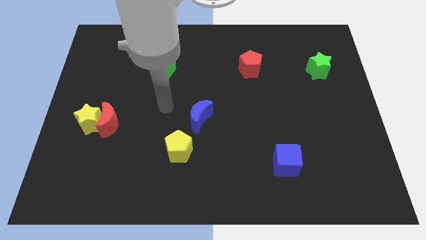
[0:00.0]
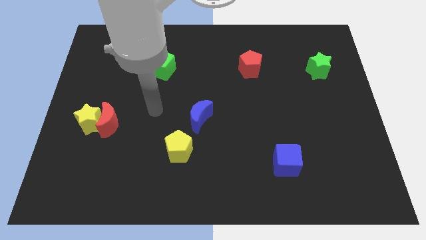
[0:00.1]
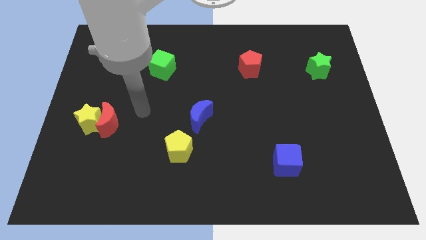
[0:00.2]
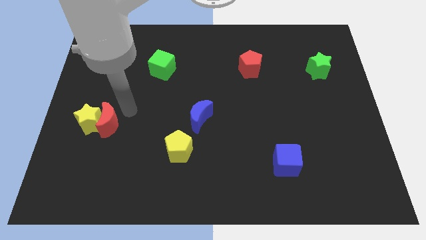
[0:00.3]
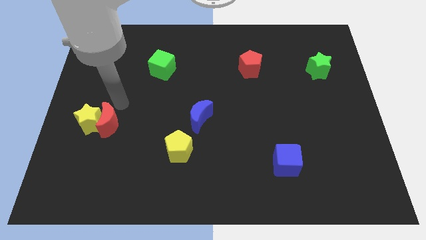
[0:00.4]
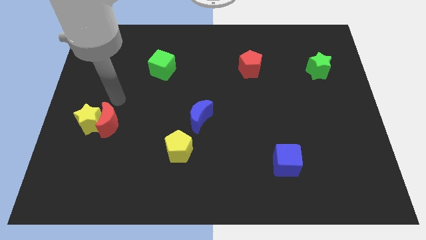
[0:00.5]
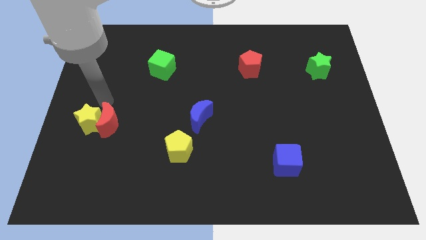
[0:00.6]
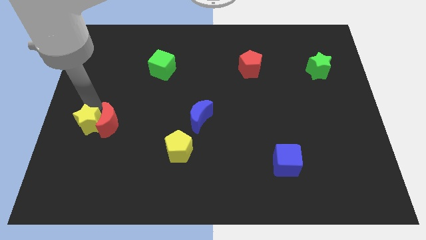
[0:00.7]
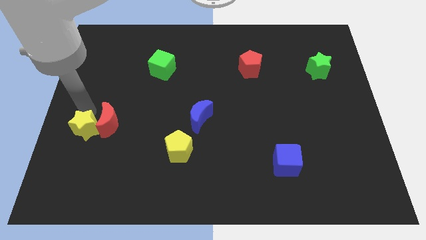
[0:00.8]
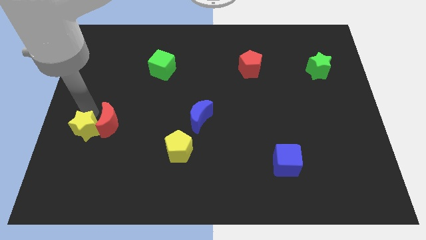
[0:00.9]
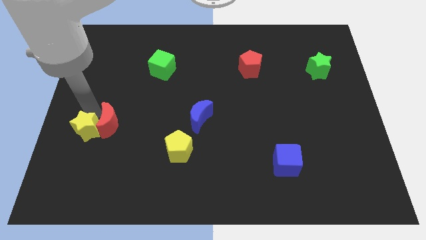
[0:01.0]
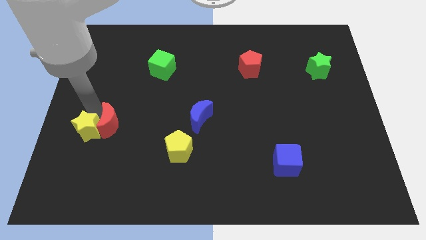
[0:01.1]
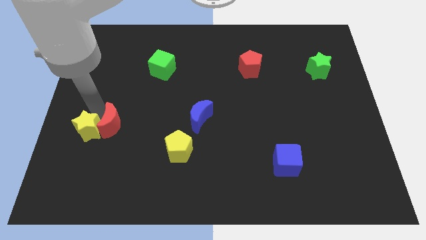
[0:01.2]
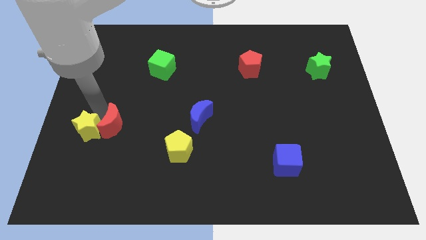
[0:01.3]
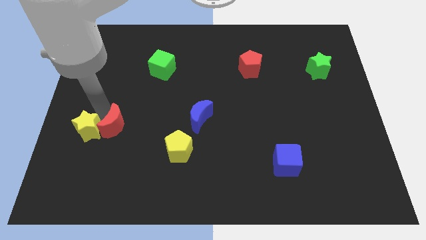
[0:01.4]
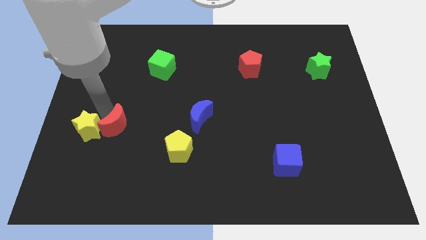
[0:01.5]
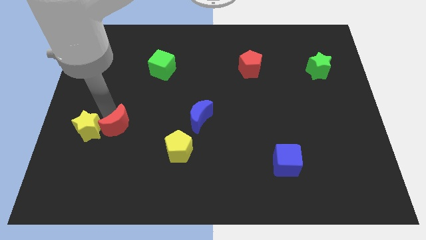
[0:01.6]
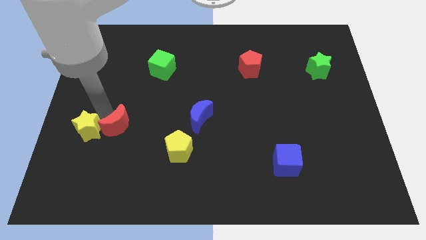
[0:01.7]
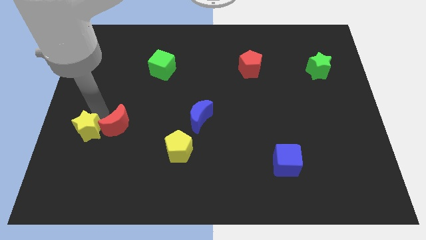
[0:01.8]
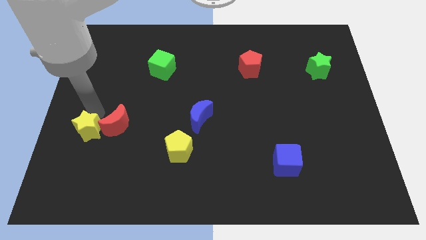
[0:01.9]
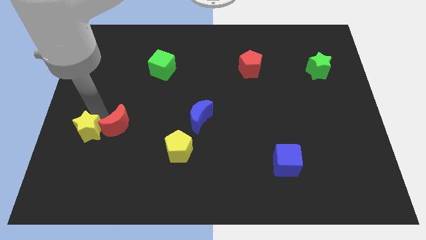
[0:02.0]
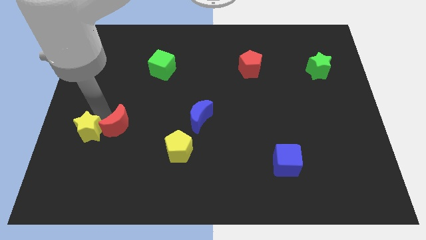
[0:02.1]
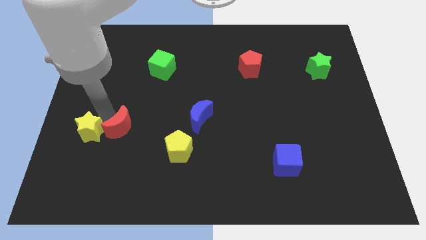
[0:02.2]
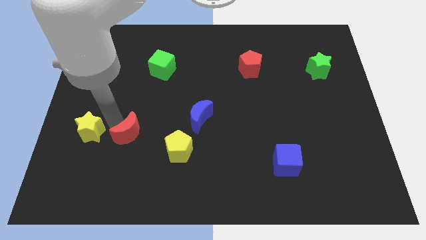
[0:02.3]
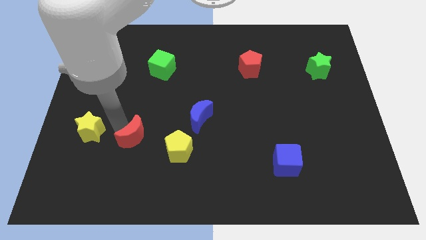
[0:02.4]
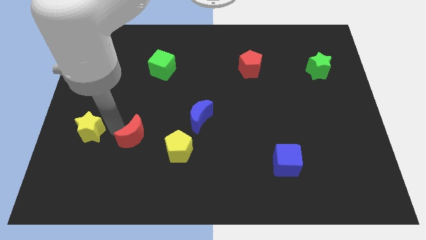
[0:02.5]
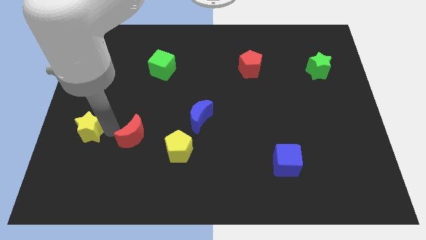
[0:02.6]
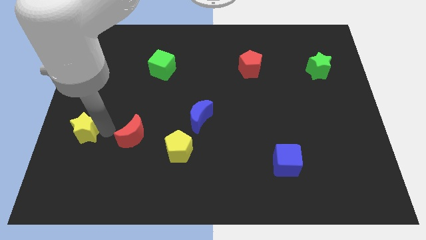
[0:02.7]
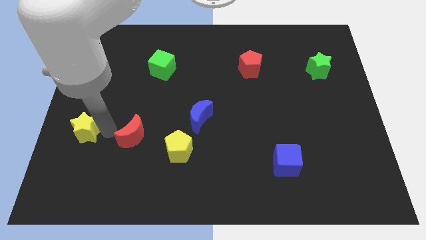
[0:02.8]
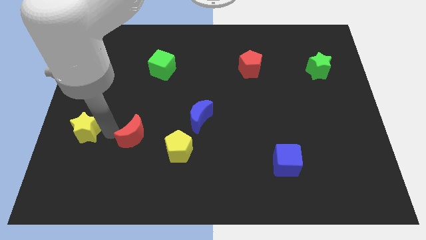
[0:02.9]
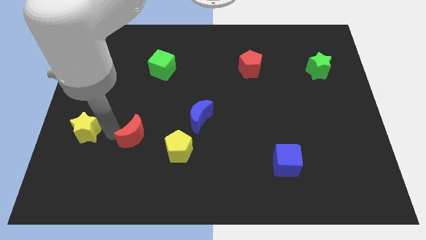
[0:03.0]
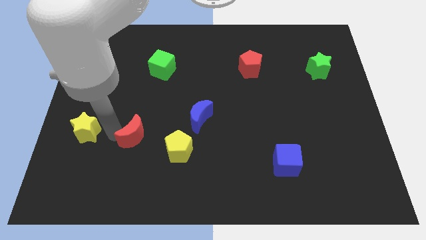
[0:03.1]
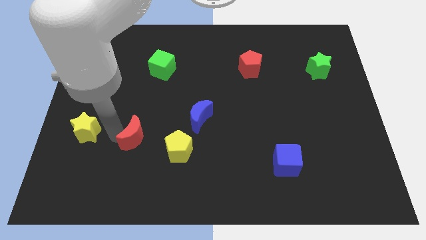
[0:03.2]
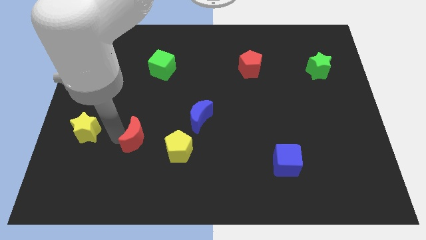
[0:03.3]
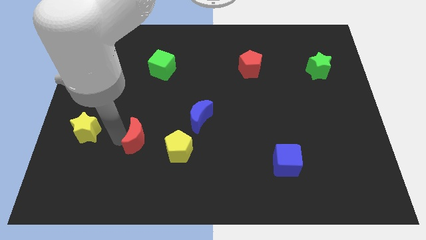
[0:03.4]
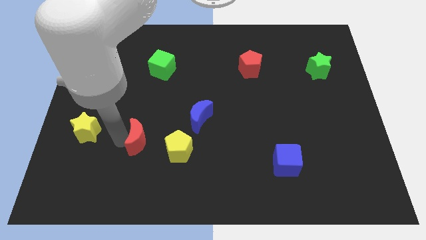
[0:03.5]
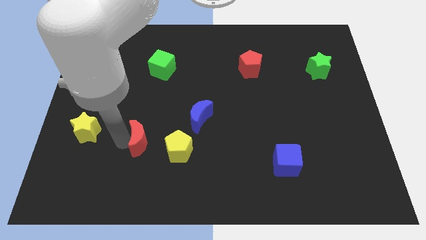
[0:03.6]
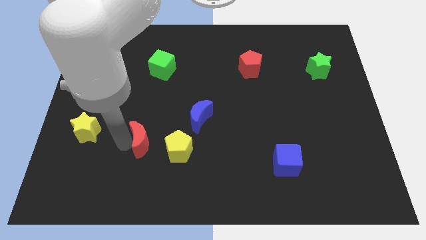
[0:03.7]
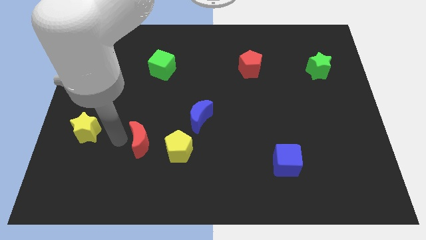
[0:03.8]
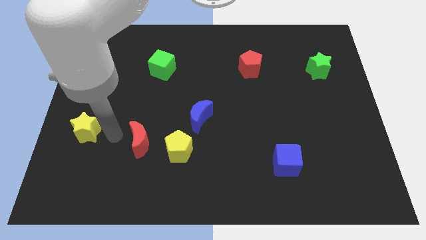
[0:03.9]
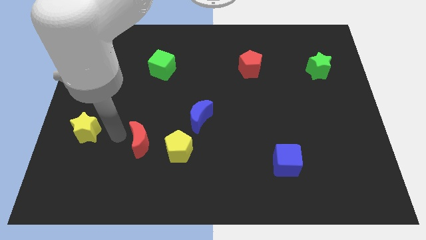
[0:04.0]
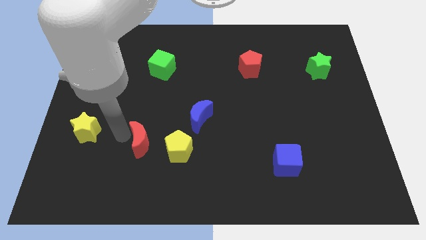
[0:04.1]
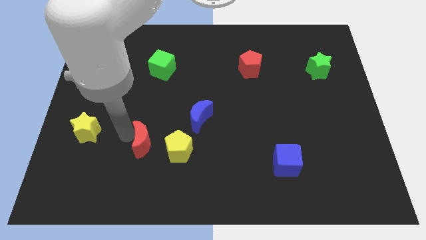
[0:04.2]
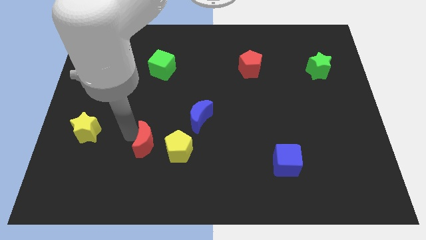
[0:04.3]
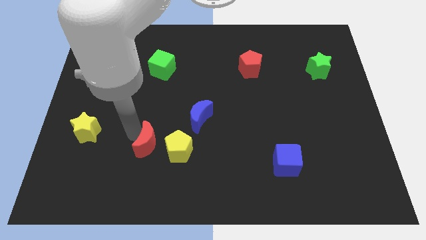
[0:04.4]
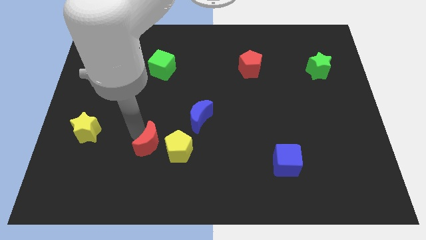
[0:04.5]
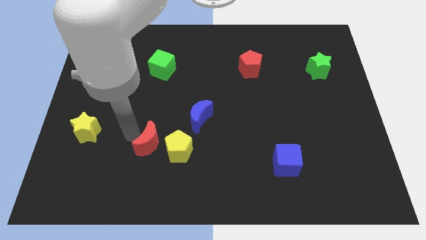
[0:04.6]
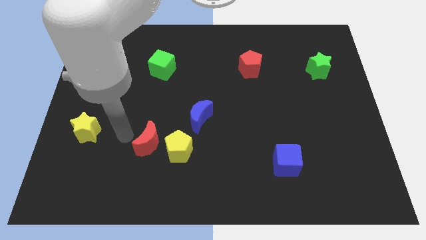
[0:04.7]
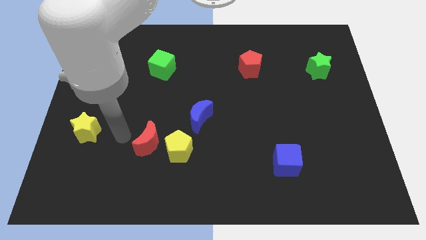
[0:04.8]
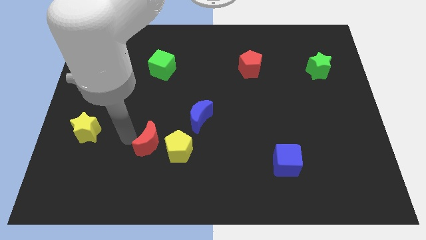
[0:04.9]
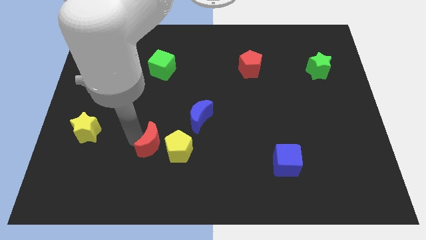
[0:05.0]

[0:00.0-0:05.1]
slide the red moon next to the yellow pentagon

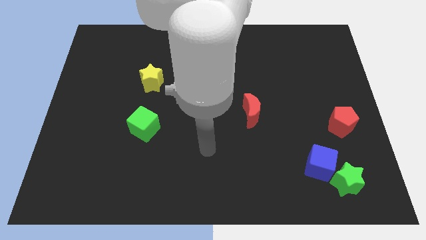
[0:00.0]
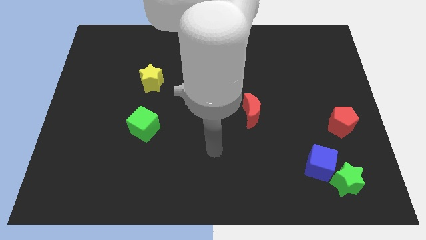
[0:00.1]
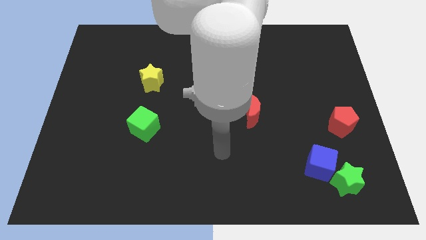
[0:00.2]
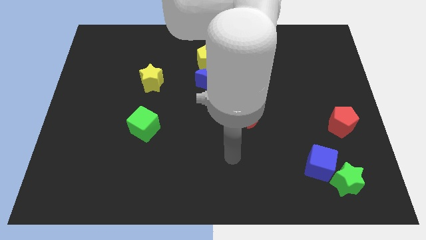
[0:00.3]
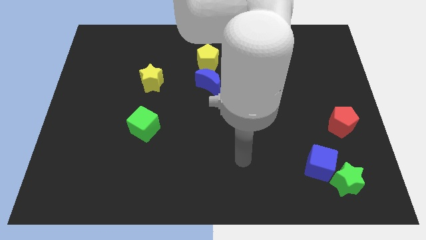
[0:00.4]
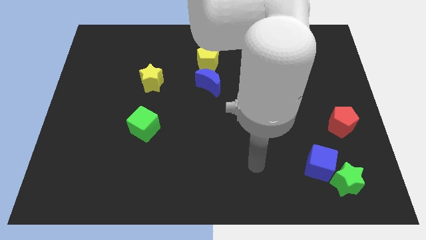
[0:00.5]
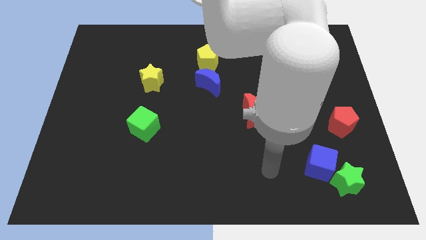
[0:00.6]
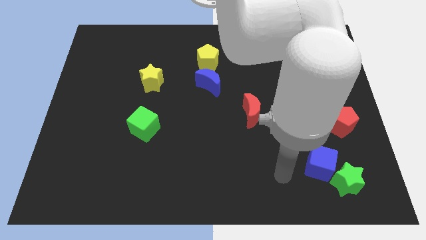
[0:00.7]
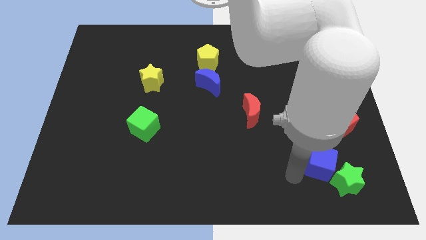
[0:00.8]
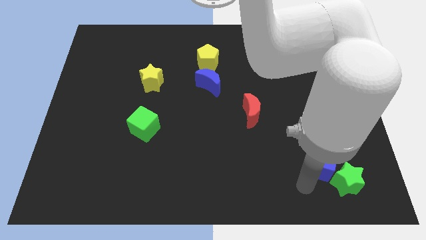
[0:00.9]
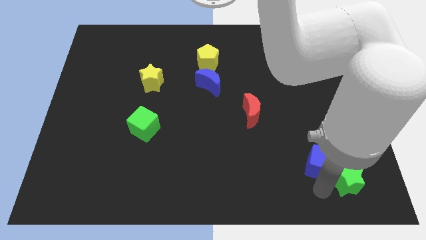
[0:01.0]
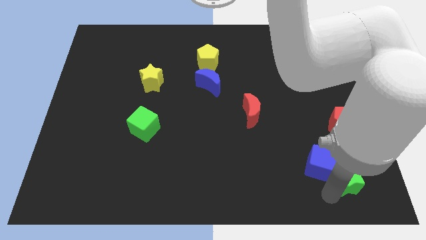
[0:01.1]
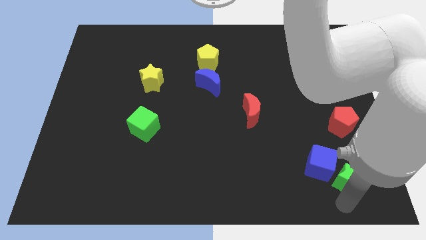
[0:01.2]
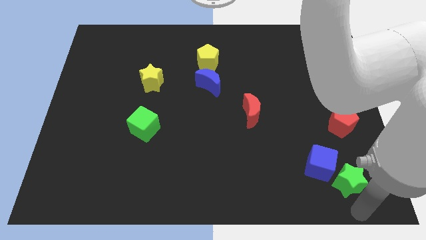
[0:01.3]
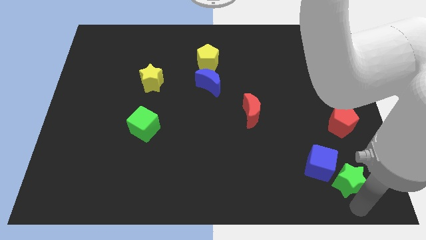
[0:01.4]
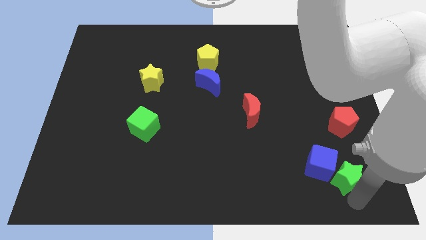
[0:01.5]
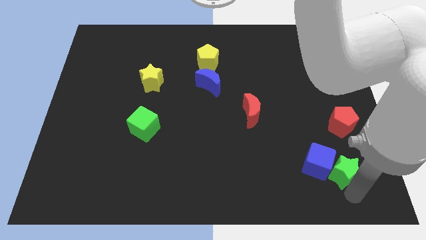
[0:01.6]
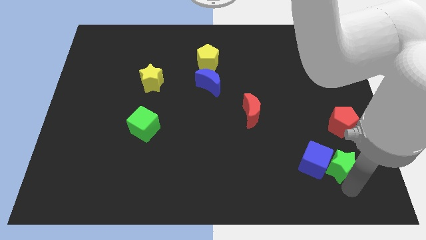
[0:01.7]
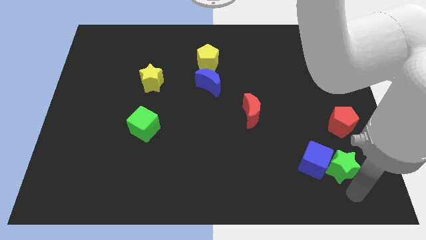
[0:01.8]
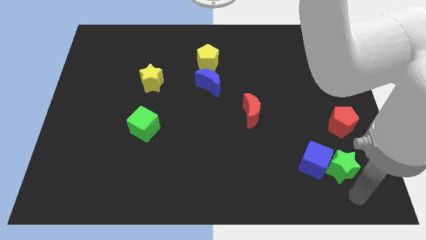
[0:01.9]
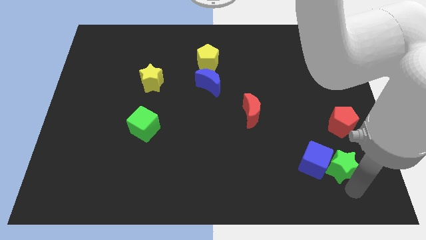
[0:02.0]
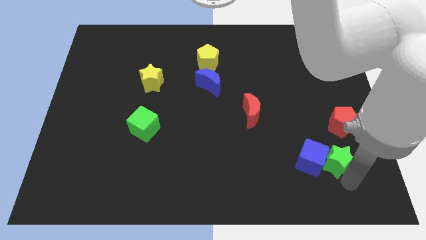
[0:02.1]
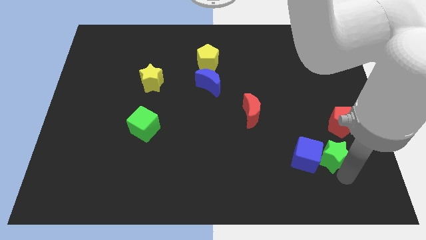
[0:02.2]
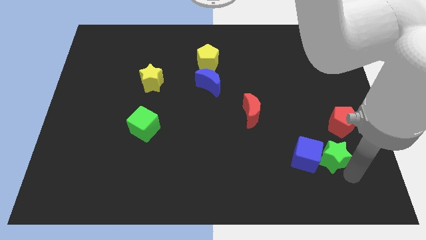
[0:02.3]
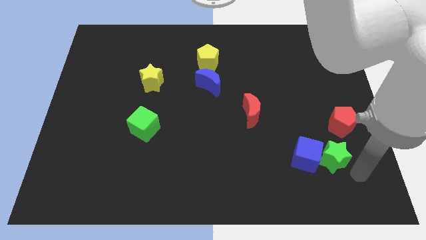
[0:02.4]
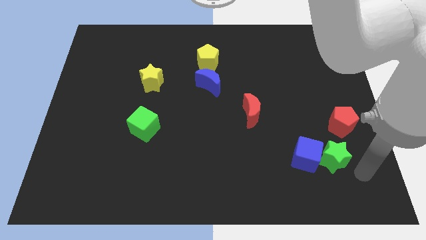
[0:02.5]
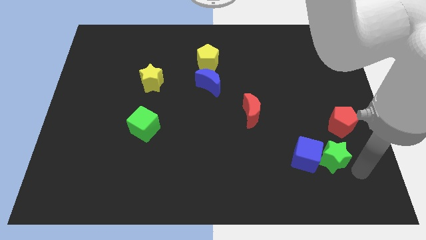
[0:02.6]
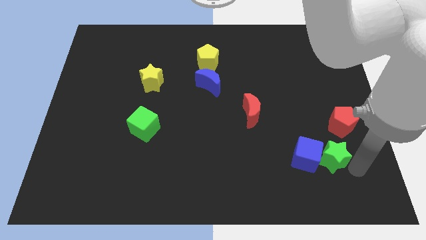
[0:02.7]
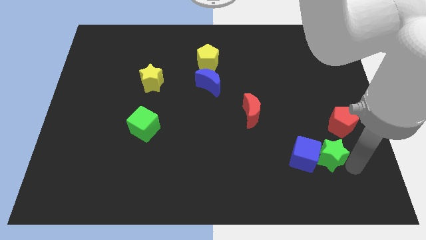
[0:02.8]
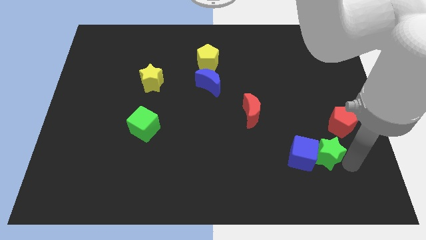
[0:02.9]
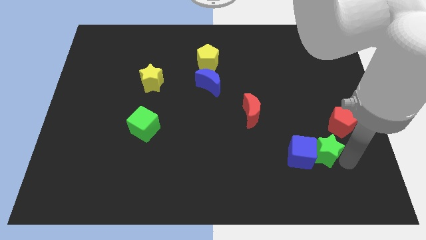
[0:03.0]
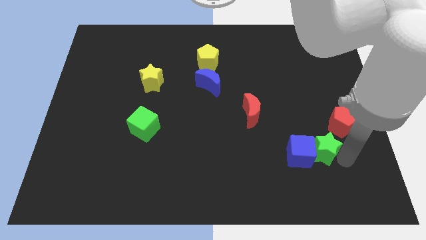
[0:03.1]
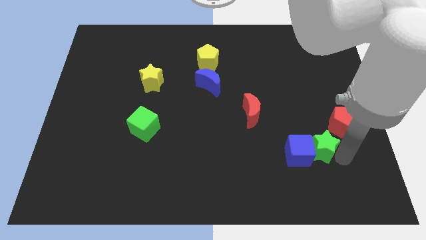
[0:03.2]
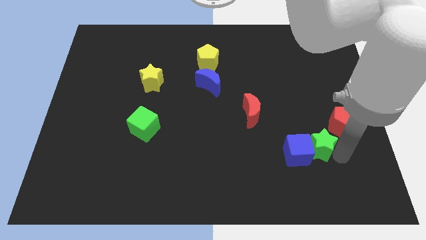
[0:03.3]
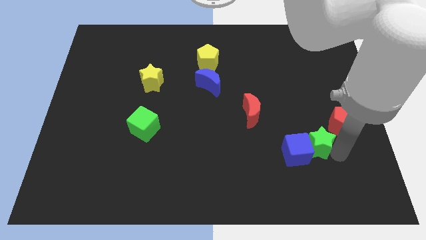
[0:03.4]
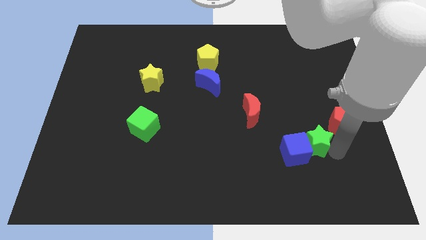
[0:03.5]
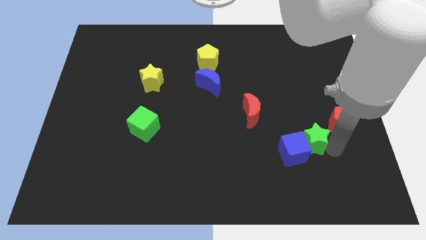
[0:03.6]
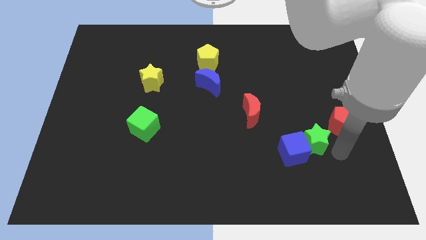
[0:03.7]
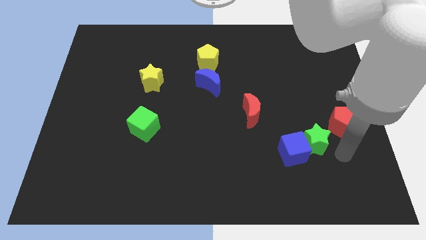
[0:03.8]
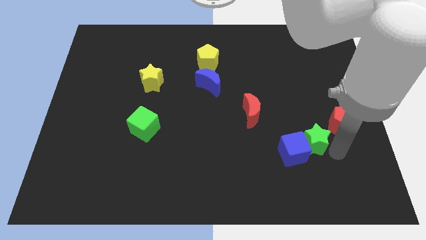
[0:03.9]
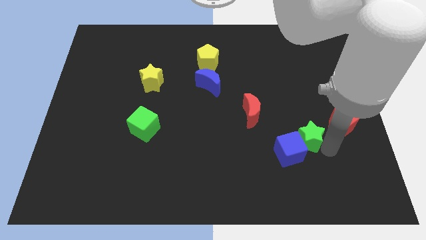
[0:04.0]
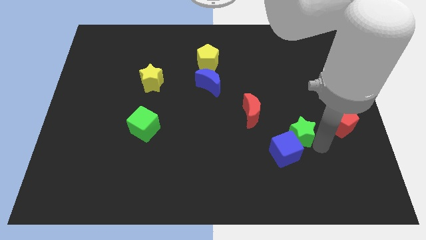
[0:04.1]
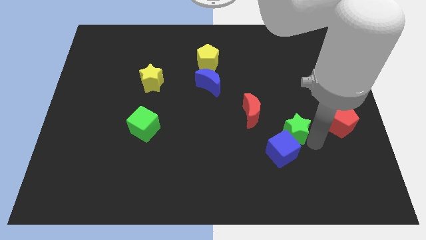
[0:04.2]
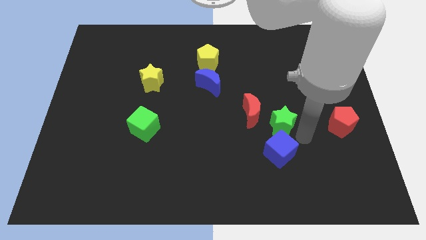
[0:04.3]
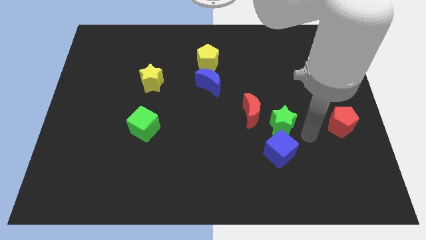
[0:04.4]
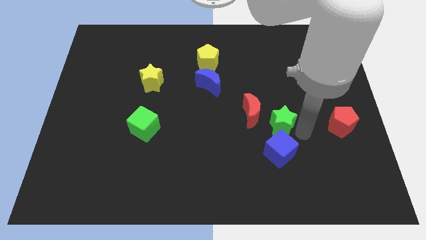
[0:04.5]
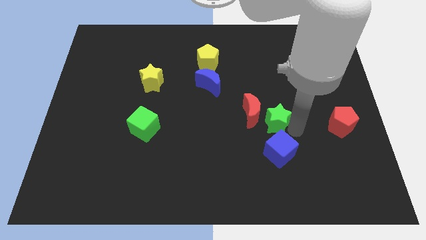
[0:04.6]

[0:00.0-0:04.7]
move the green star next to the red moon
